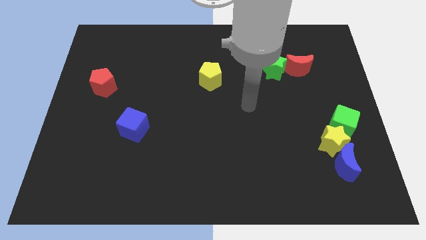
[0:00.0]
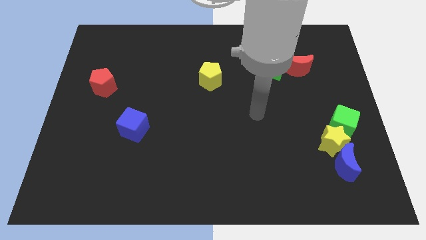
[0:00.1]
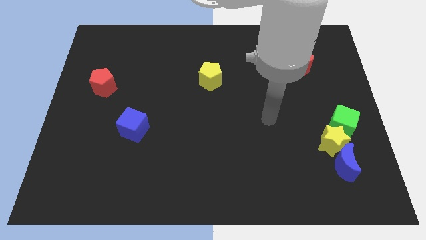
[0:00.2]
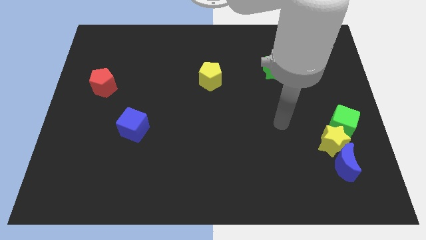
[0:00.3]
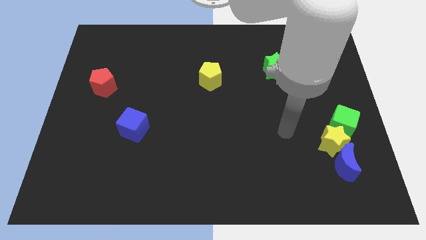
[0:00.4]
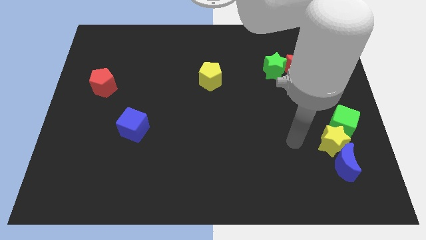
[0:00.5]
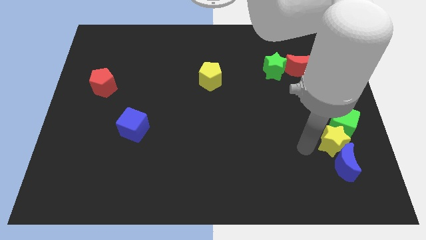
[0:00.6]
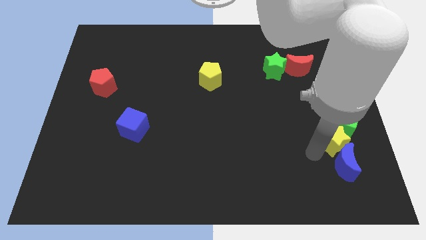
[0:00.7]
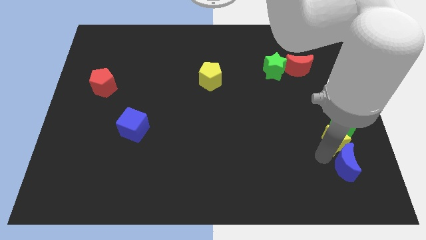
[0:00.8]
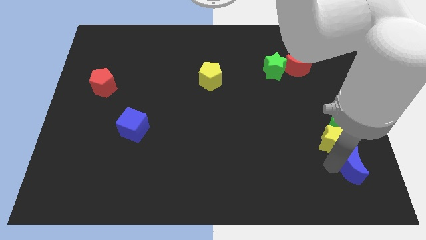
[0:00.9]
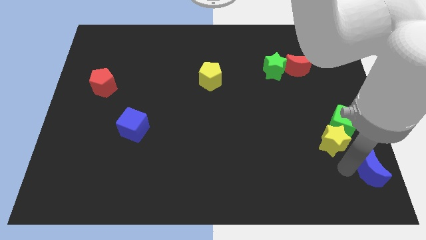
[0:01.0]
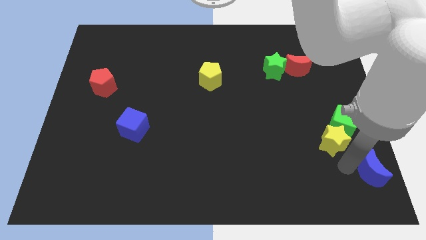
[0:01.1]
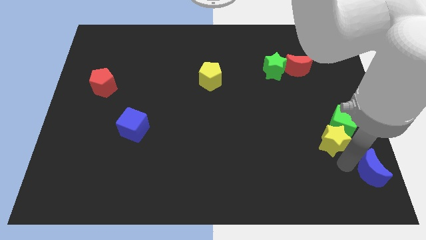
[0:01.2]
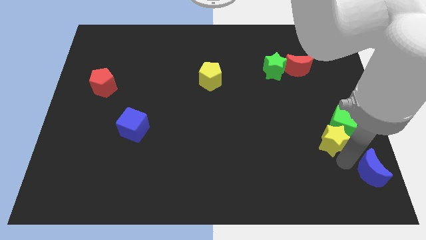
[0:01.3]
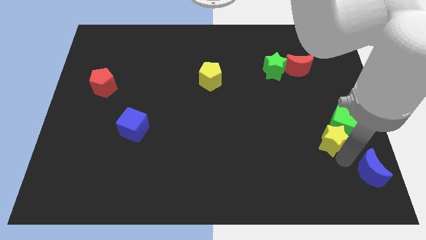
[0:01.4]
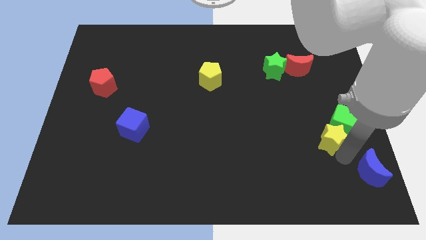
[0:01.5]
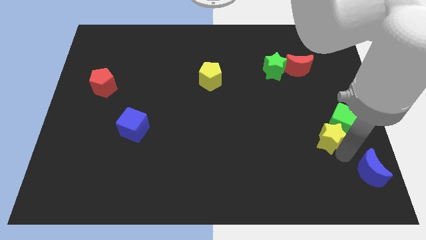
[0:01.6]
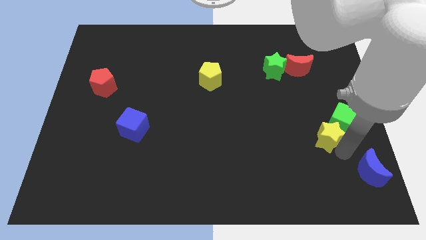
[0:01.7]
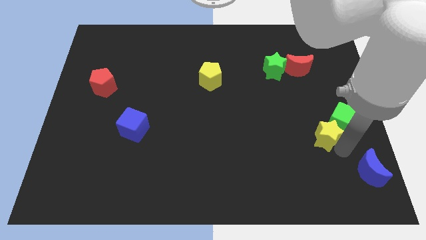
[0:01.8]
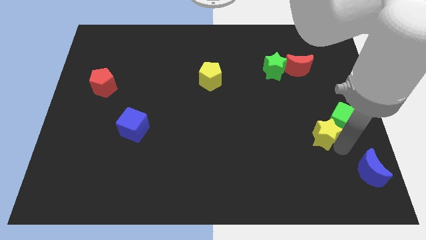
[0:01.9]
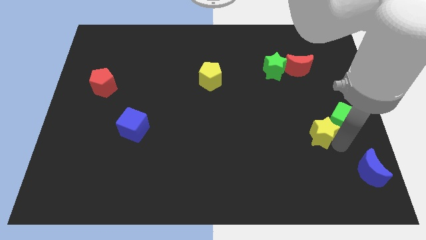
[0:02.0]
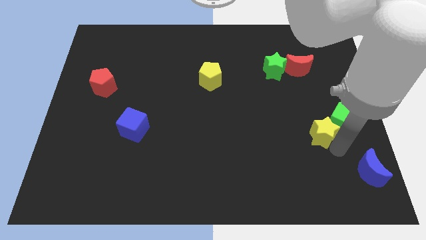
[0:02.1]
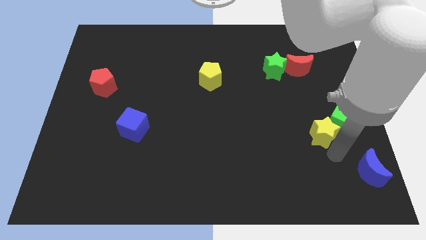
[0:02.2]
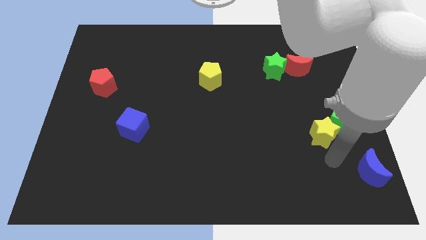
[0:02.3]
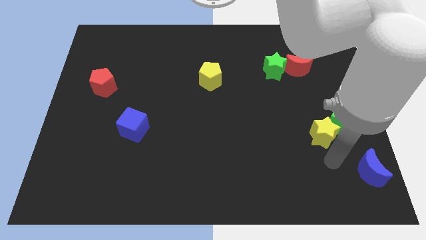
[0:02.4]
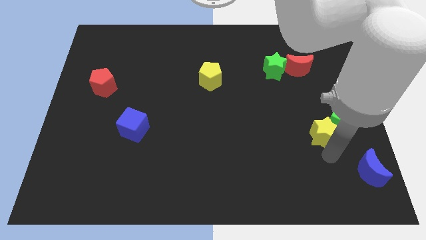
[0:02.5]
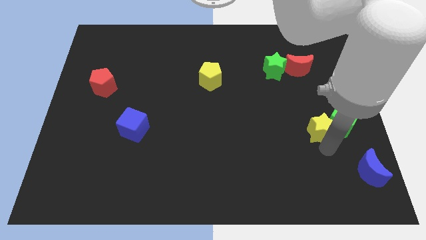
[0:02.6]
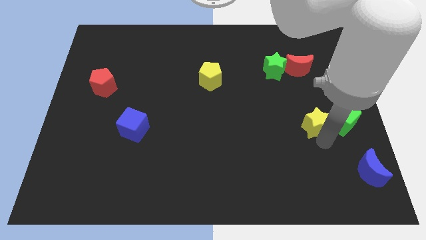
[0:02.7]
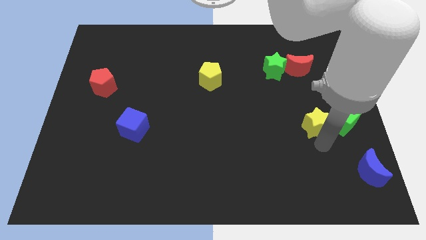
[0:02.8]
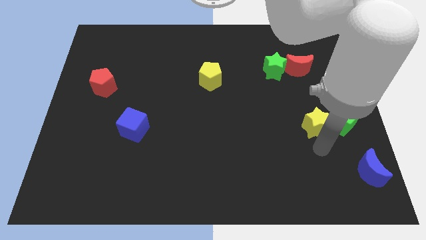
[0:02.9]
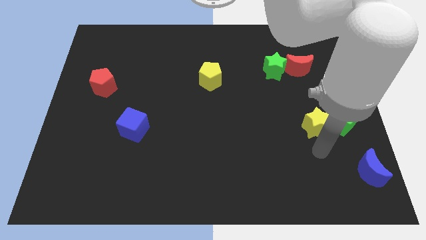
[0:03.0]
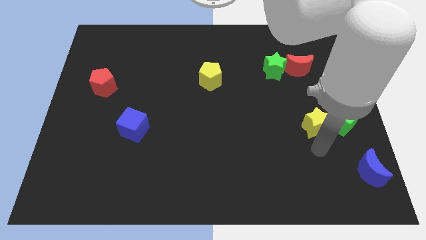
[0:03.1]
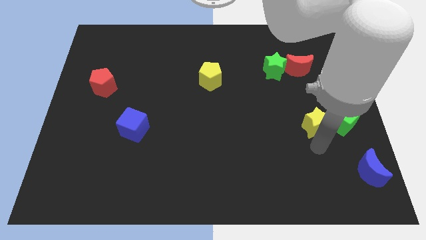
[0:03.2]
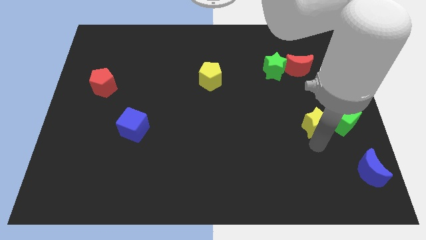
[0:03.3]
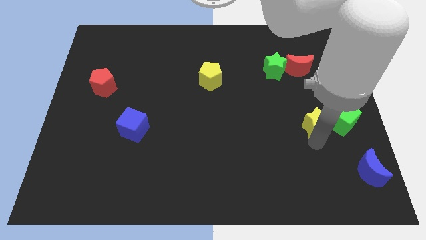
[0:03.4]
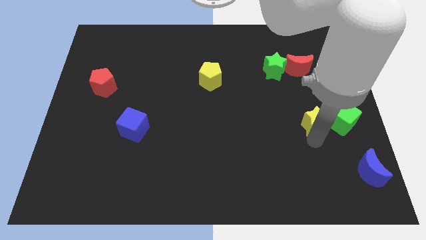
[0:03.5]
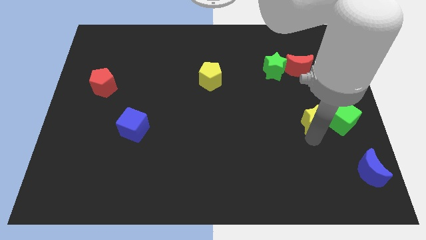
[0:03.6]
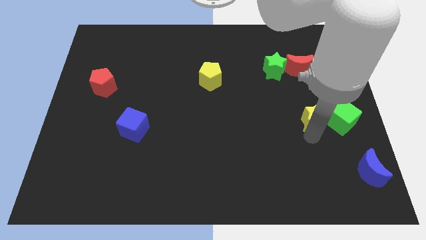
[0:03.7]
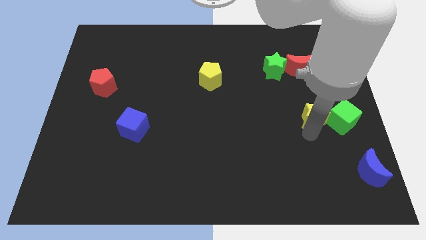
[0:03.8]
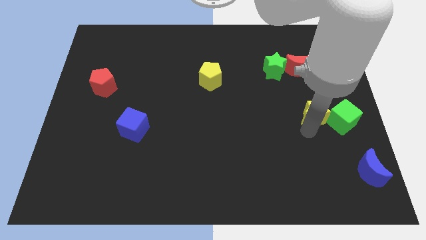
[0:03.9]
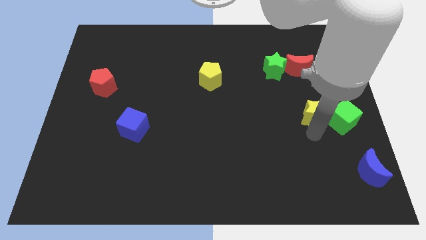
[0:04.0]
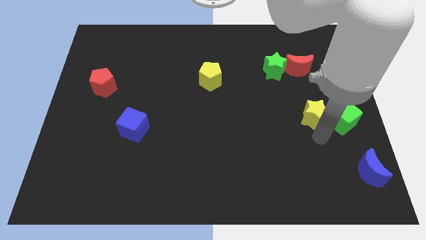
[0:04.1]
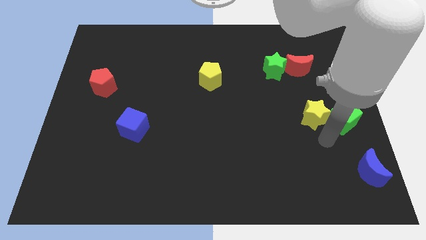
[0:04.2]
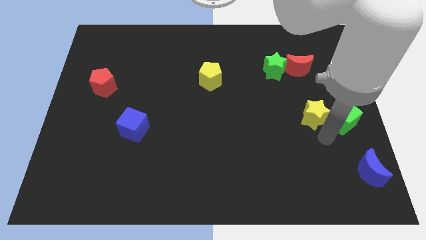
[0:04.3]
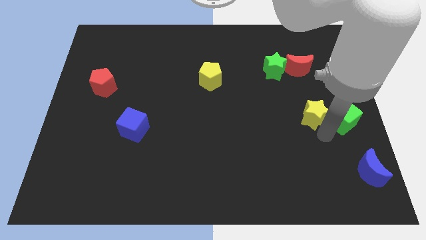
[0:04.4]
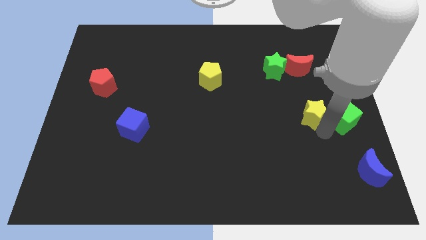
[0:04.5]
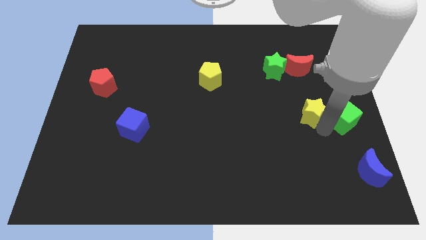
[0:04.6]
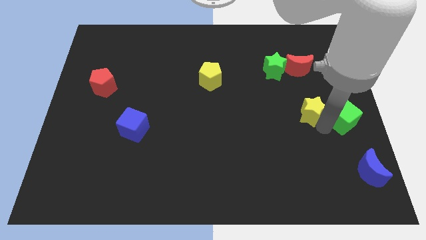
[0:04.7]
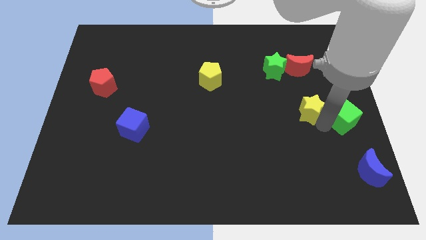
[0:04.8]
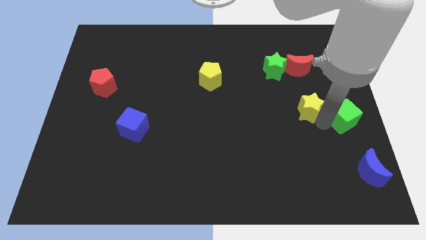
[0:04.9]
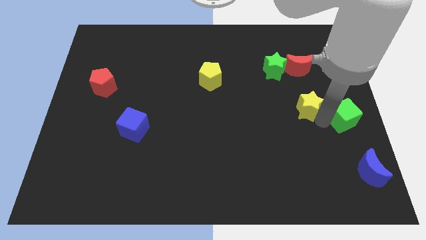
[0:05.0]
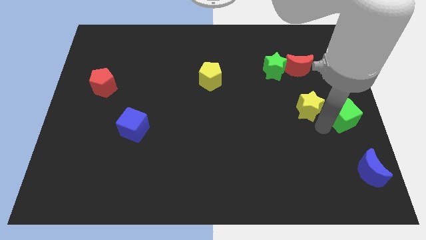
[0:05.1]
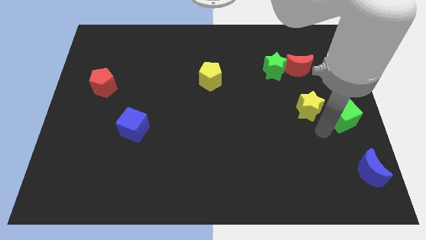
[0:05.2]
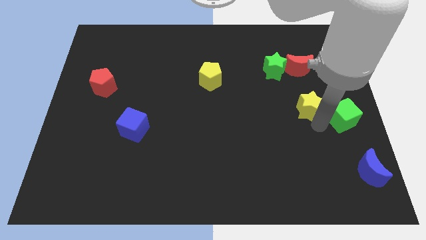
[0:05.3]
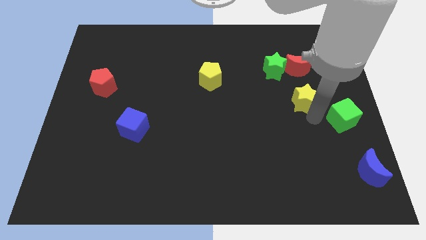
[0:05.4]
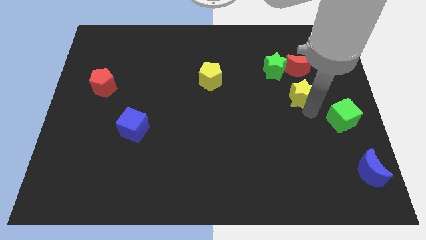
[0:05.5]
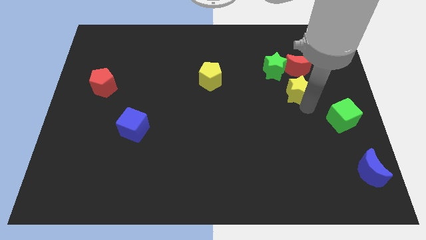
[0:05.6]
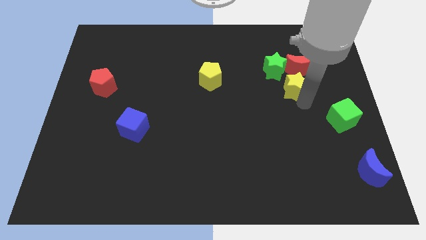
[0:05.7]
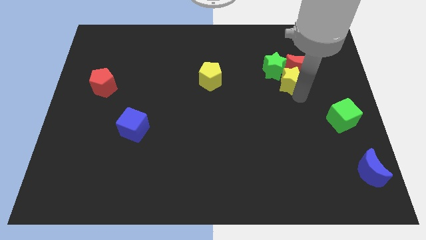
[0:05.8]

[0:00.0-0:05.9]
put the yellow star next to the green star

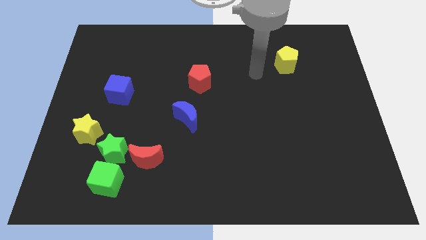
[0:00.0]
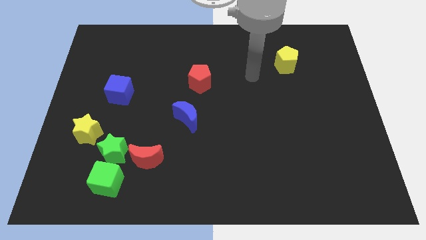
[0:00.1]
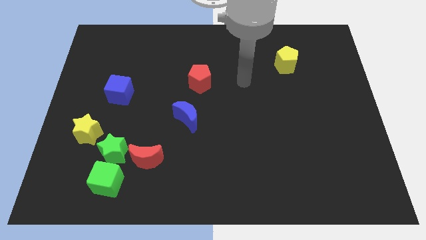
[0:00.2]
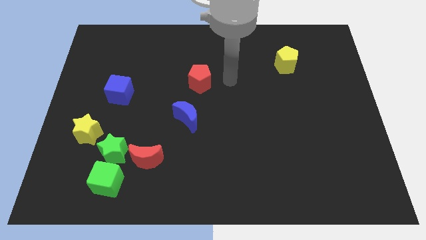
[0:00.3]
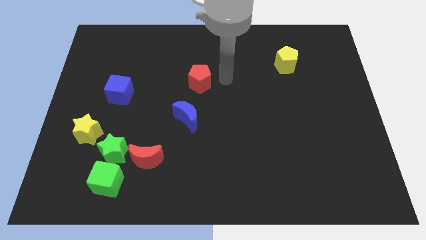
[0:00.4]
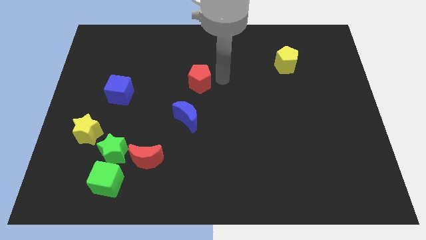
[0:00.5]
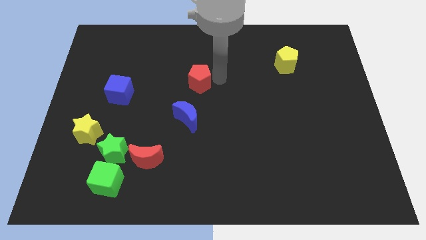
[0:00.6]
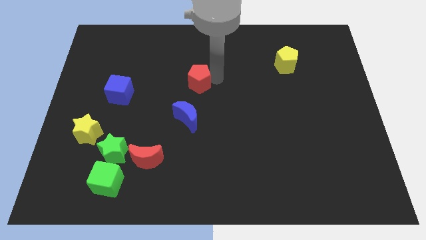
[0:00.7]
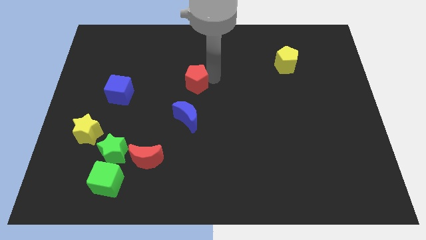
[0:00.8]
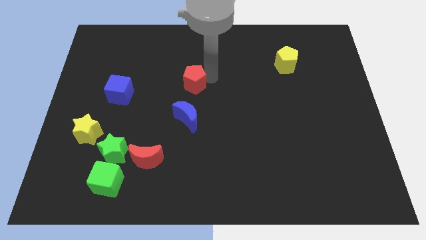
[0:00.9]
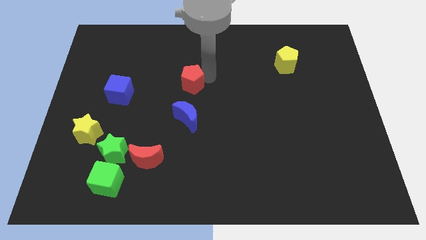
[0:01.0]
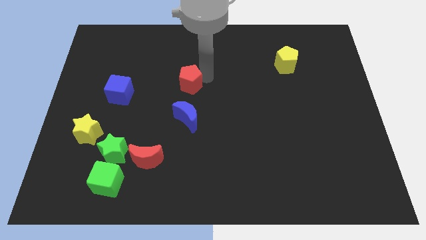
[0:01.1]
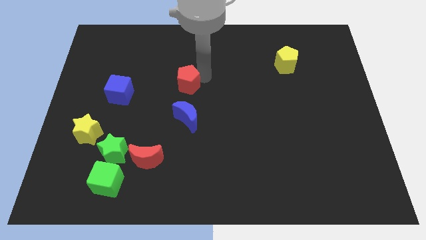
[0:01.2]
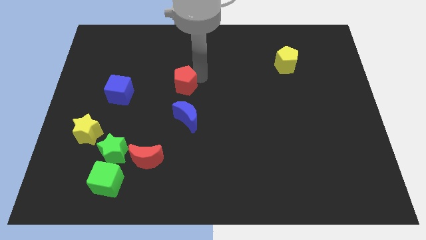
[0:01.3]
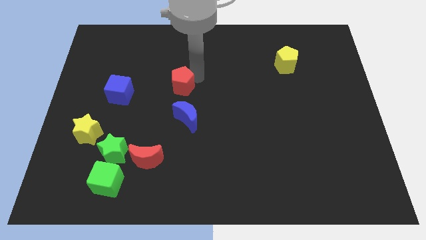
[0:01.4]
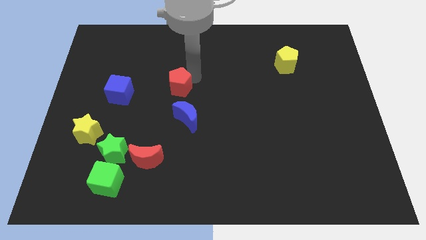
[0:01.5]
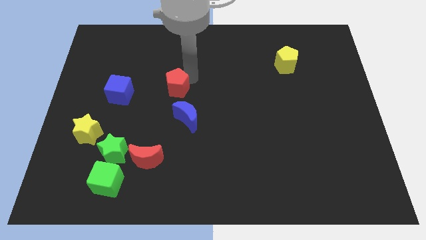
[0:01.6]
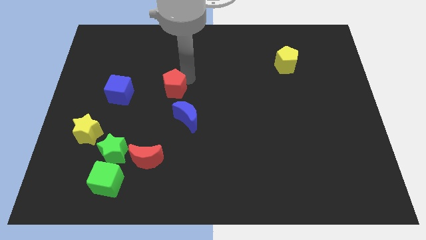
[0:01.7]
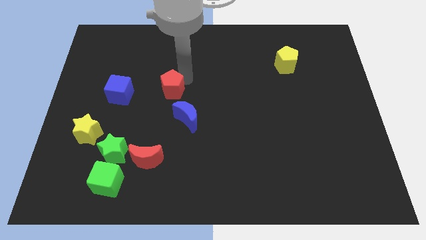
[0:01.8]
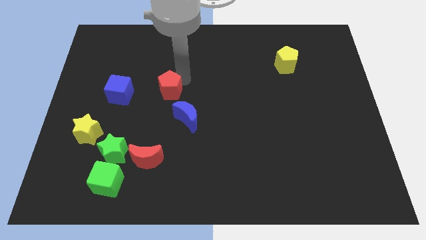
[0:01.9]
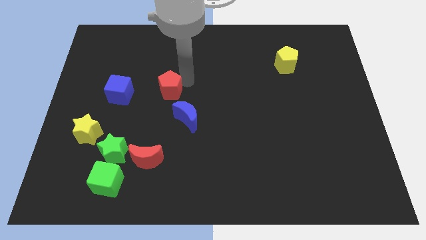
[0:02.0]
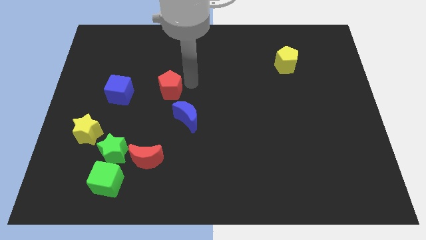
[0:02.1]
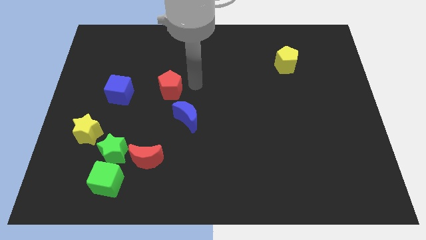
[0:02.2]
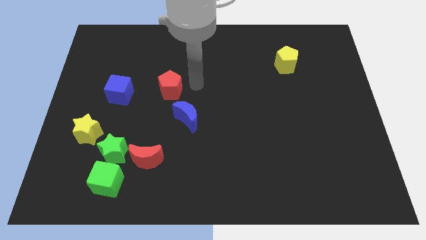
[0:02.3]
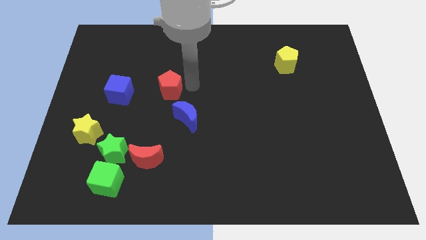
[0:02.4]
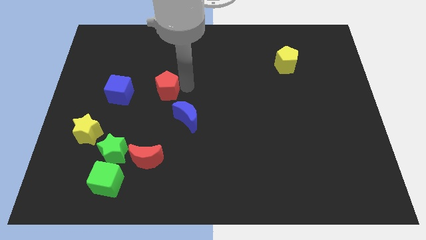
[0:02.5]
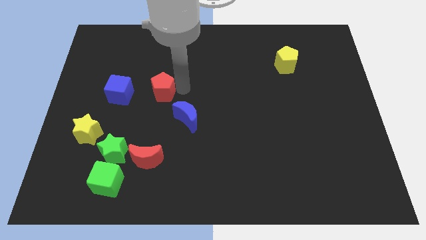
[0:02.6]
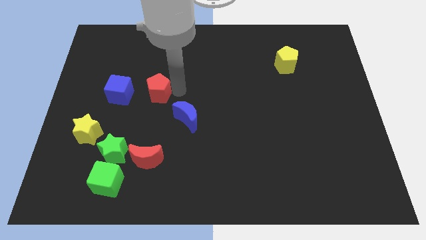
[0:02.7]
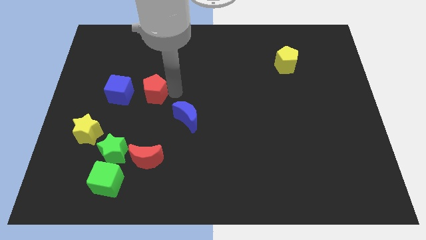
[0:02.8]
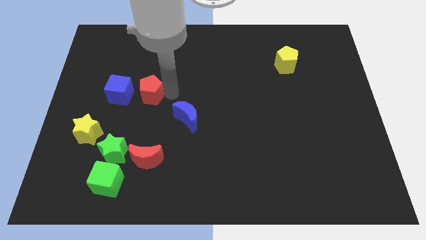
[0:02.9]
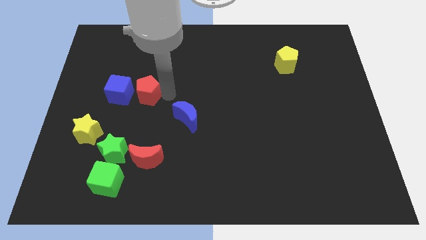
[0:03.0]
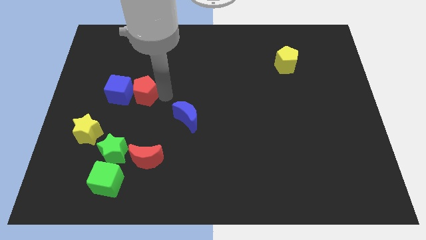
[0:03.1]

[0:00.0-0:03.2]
push the red pentagon next to the blue cube
